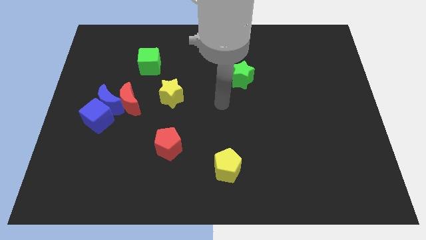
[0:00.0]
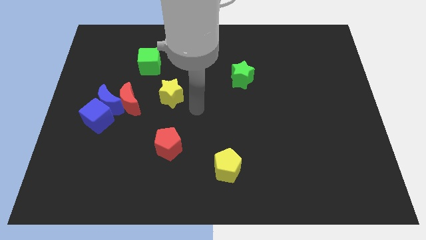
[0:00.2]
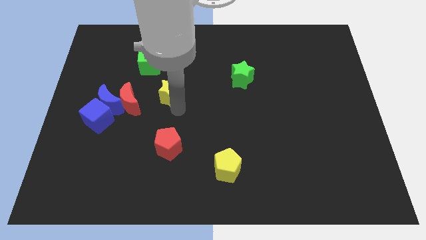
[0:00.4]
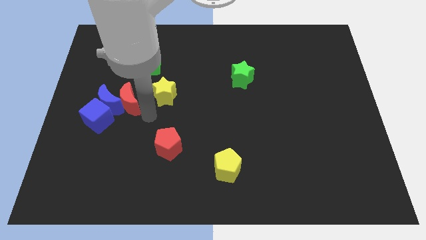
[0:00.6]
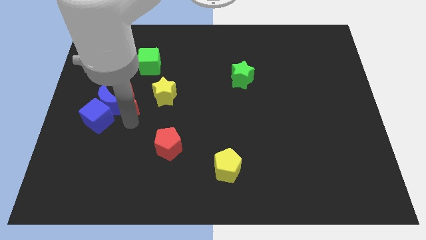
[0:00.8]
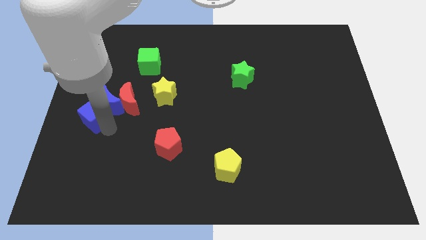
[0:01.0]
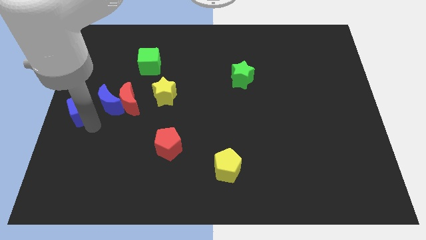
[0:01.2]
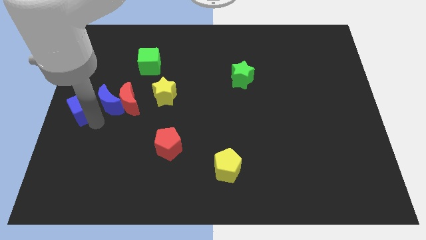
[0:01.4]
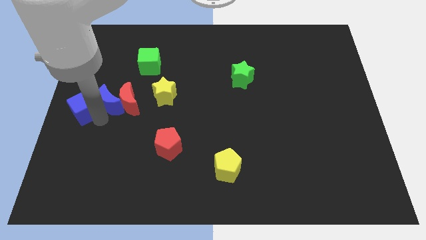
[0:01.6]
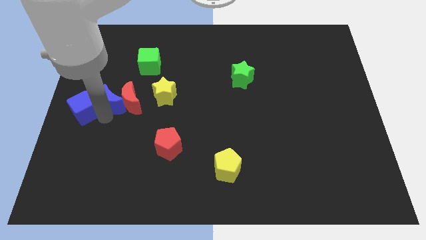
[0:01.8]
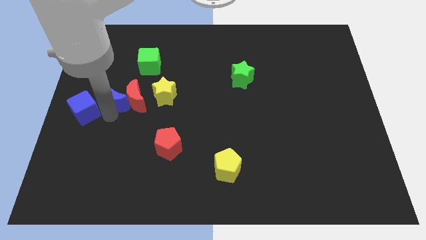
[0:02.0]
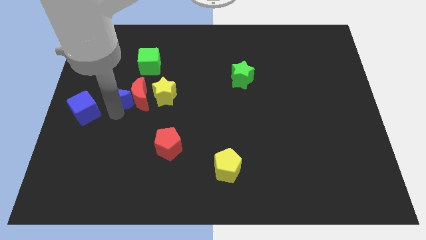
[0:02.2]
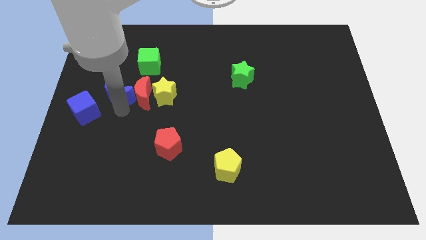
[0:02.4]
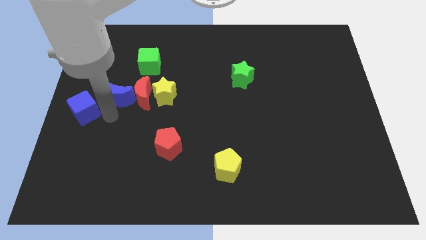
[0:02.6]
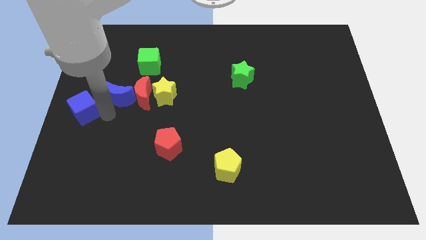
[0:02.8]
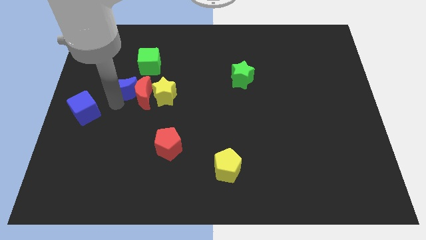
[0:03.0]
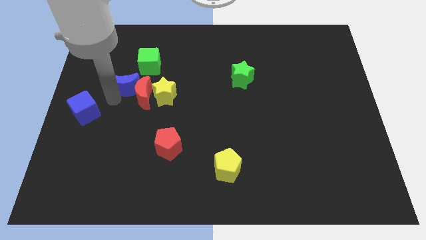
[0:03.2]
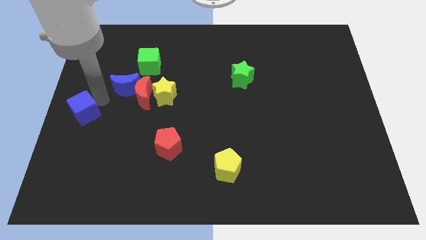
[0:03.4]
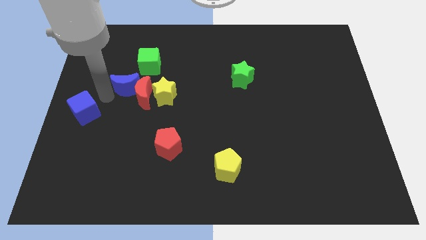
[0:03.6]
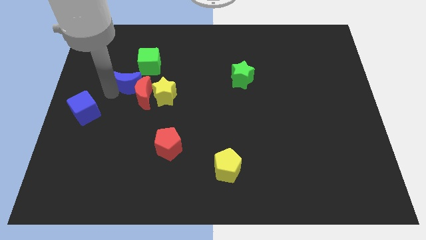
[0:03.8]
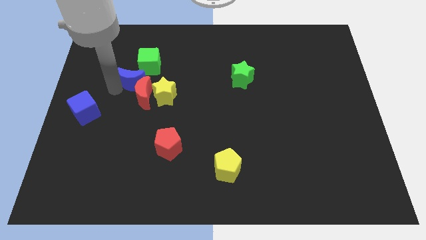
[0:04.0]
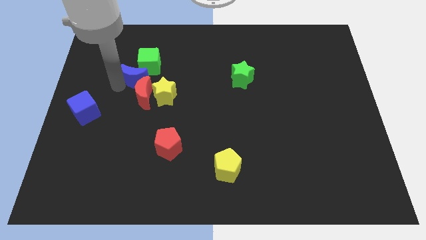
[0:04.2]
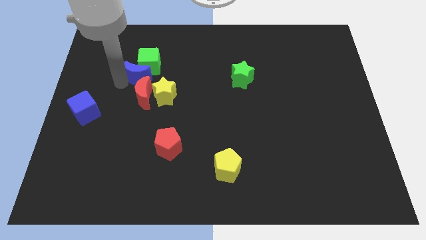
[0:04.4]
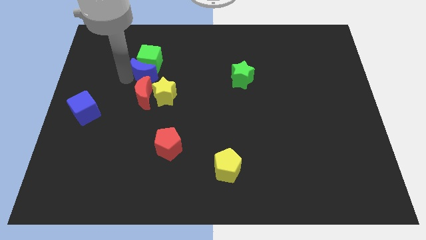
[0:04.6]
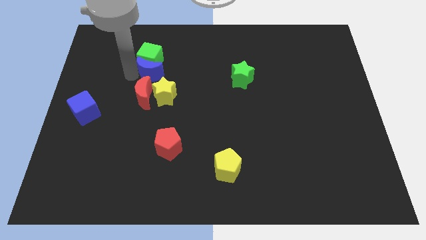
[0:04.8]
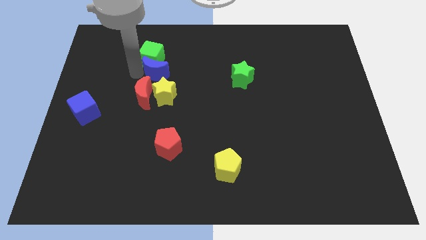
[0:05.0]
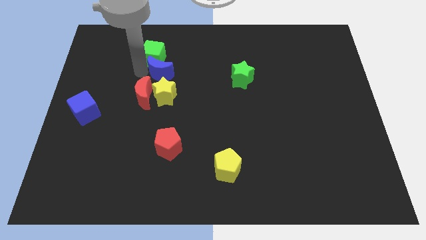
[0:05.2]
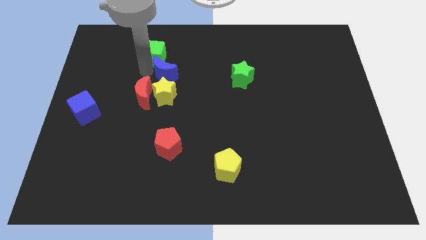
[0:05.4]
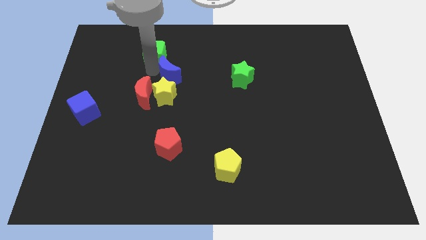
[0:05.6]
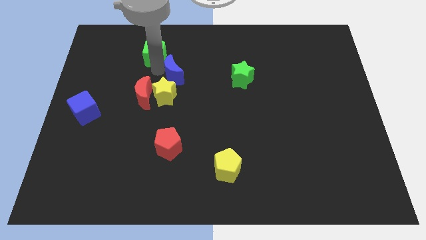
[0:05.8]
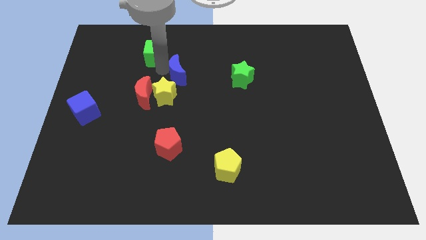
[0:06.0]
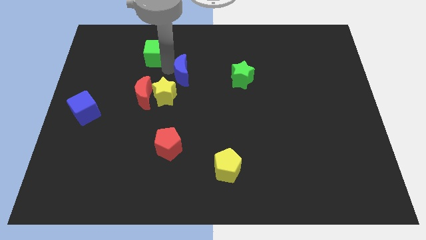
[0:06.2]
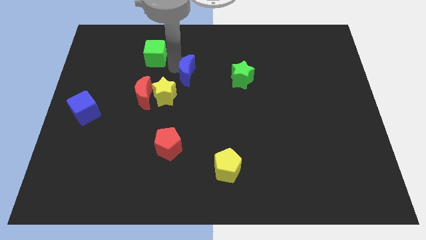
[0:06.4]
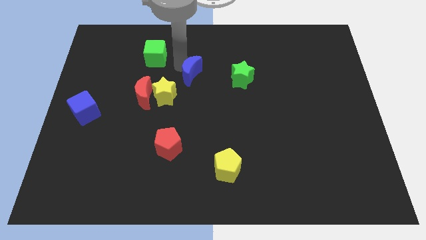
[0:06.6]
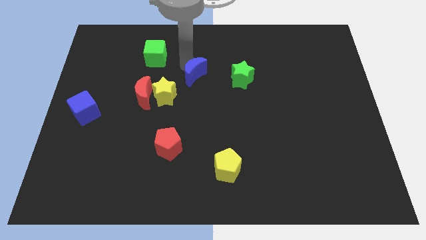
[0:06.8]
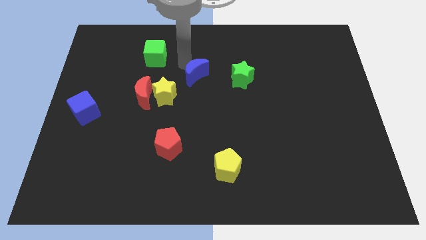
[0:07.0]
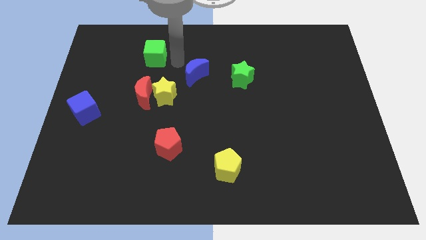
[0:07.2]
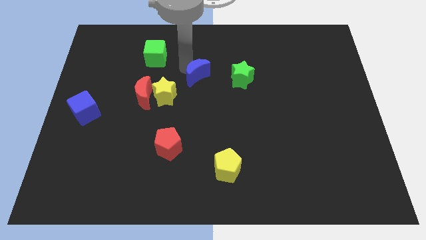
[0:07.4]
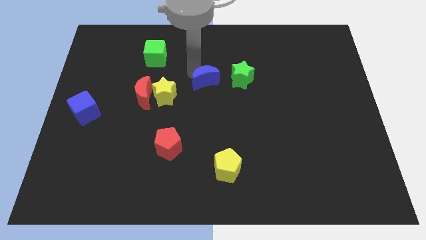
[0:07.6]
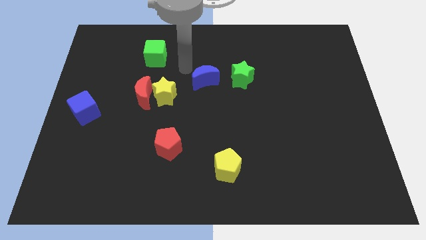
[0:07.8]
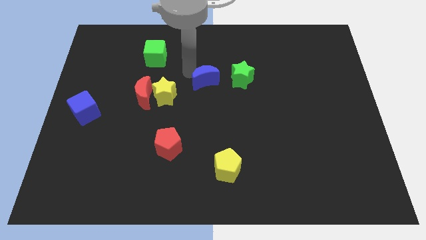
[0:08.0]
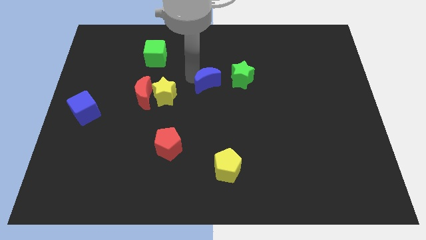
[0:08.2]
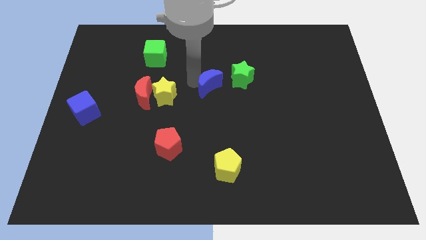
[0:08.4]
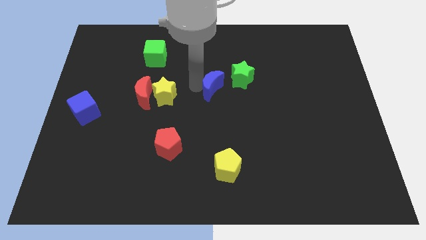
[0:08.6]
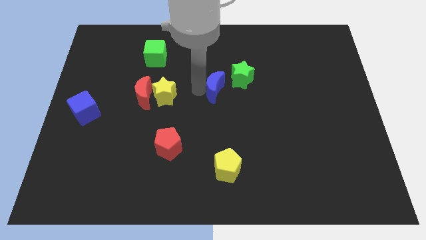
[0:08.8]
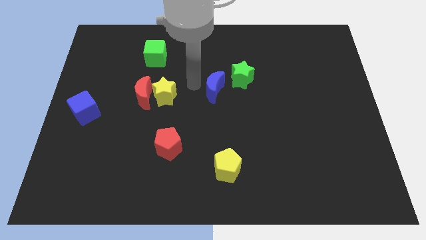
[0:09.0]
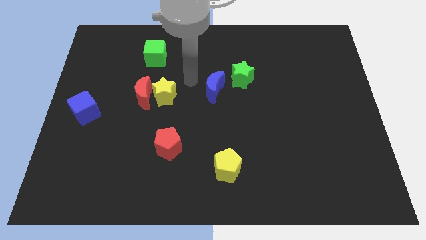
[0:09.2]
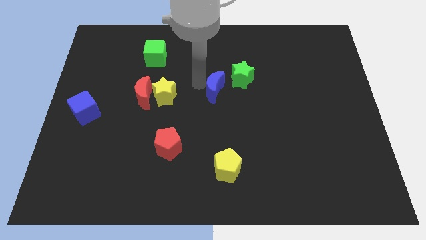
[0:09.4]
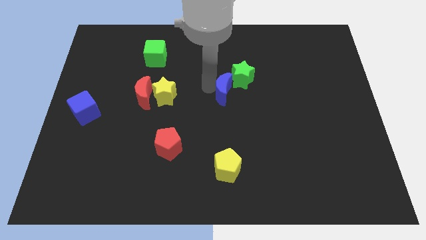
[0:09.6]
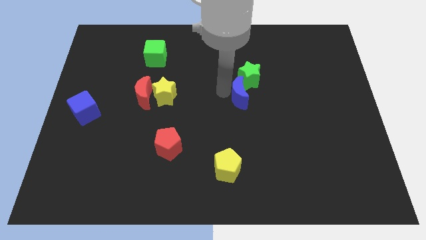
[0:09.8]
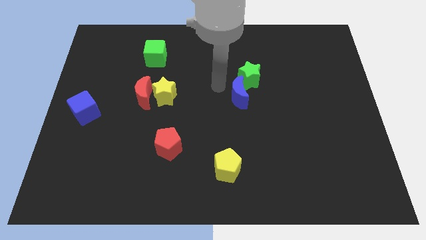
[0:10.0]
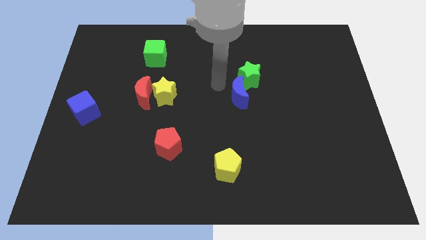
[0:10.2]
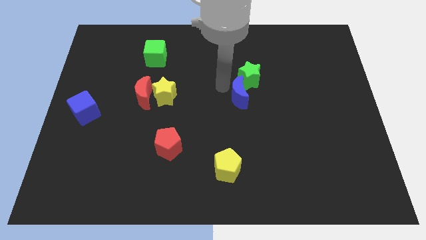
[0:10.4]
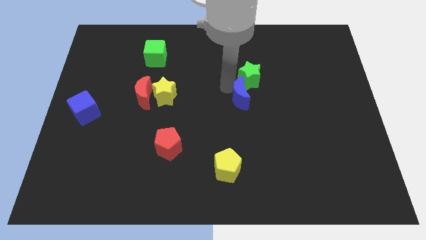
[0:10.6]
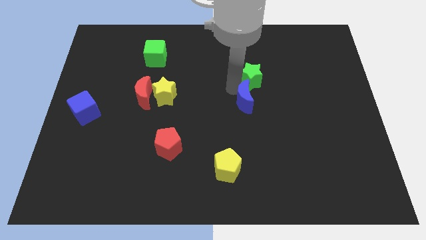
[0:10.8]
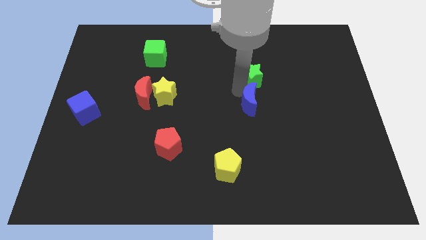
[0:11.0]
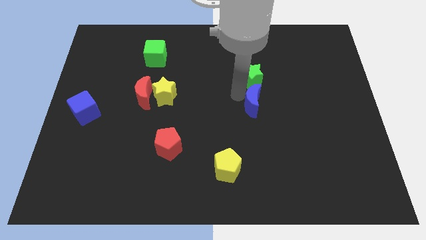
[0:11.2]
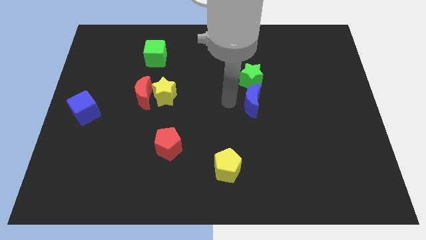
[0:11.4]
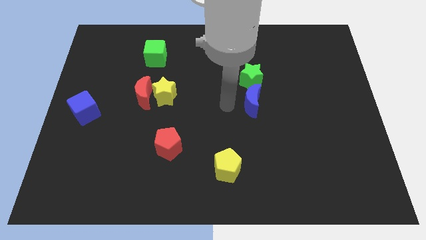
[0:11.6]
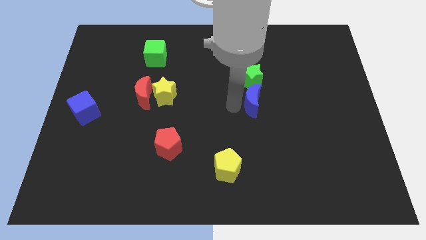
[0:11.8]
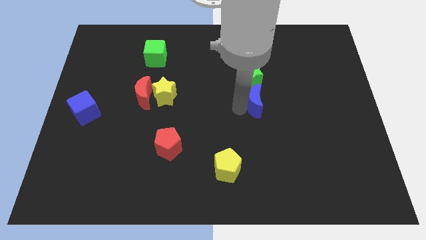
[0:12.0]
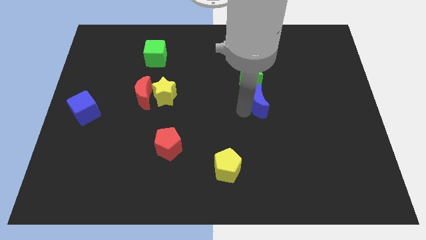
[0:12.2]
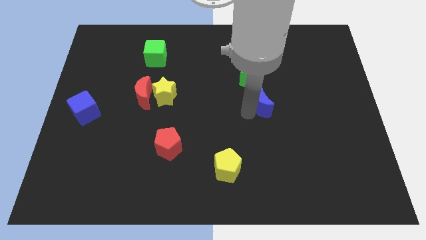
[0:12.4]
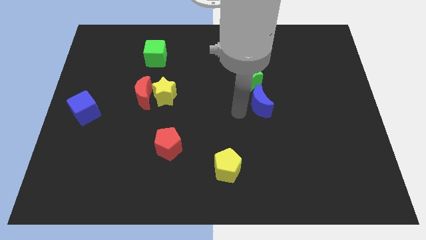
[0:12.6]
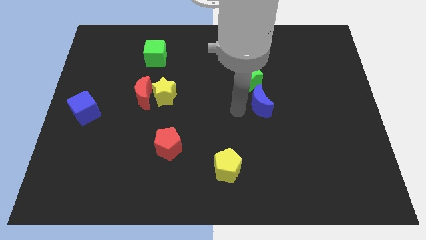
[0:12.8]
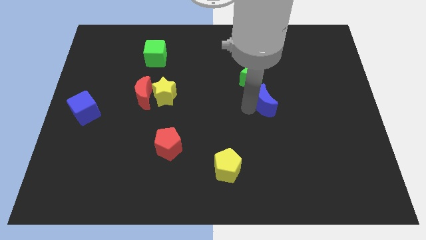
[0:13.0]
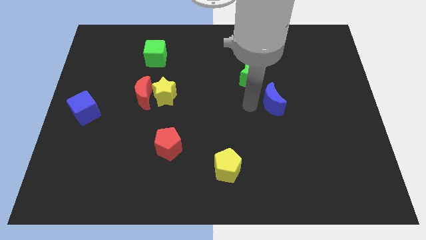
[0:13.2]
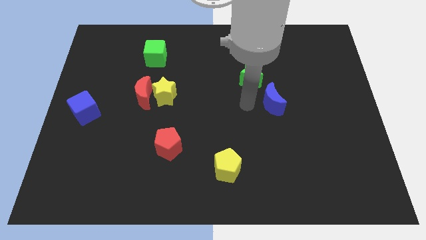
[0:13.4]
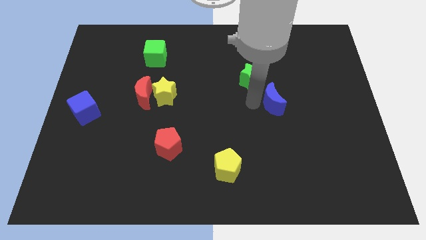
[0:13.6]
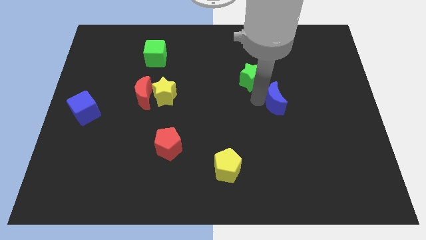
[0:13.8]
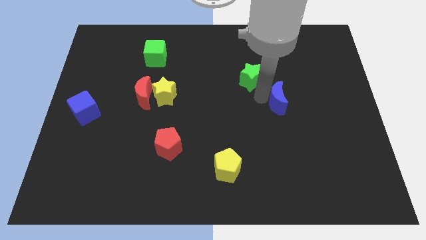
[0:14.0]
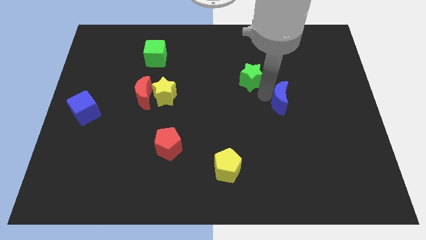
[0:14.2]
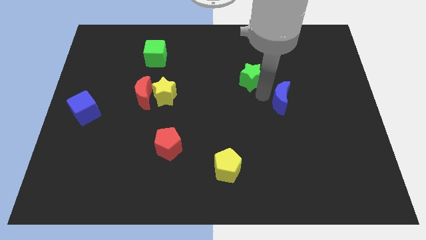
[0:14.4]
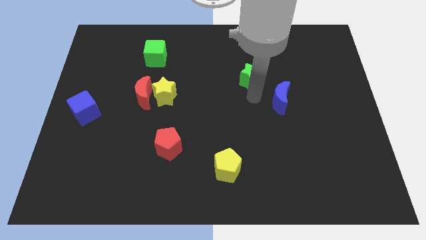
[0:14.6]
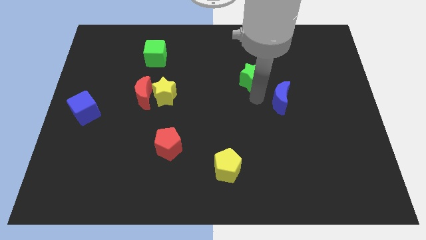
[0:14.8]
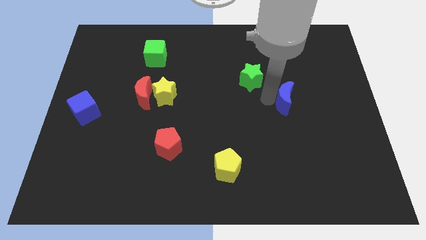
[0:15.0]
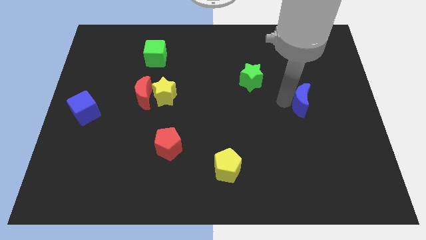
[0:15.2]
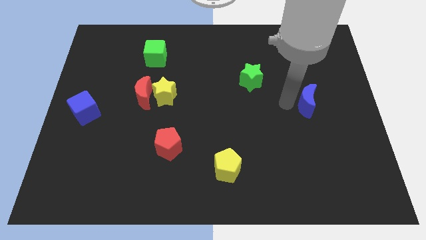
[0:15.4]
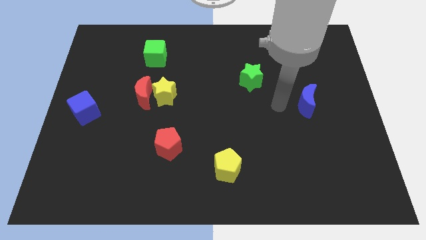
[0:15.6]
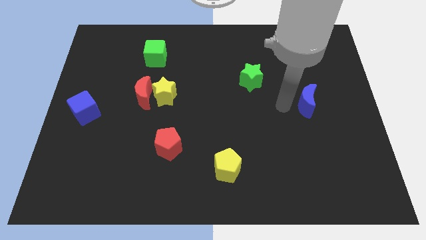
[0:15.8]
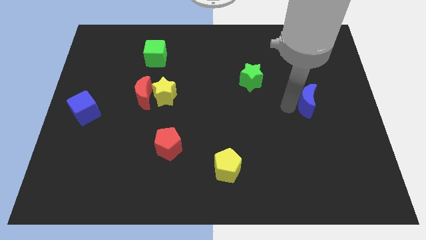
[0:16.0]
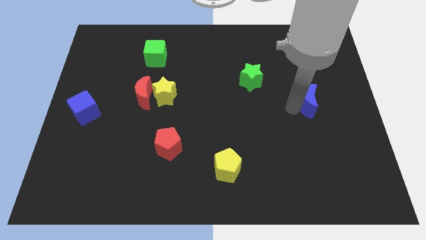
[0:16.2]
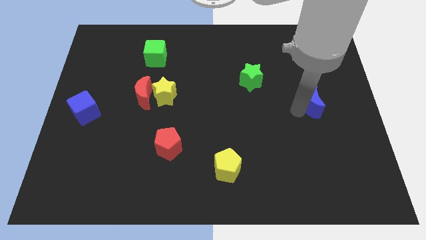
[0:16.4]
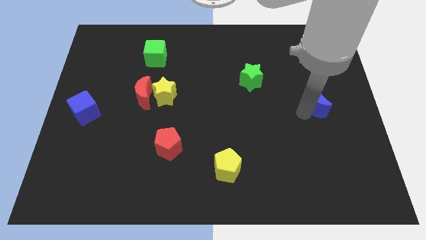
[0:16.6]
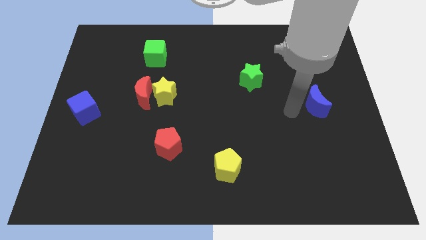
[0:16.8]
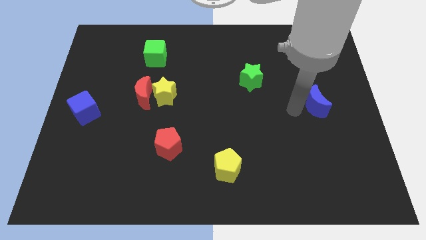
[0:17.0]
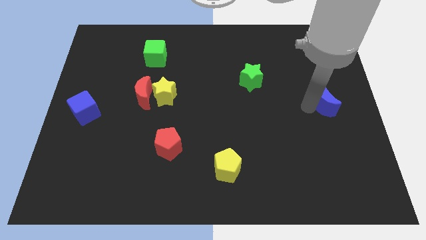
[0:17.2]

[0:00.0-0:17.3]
push the blue moon to the center right
